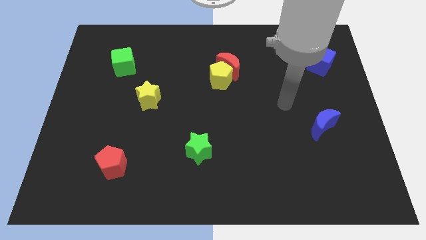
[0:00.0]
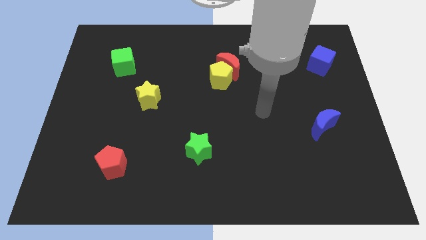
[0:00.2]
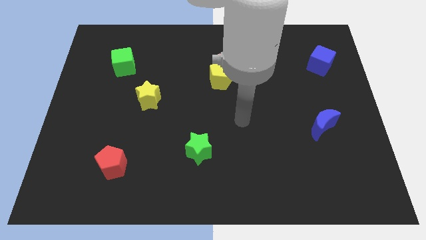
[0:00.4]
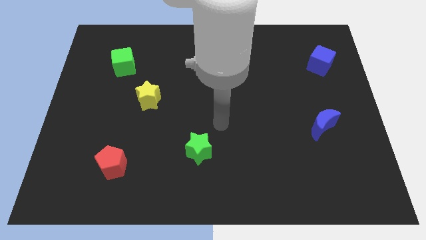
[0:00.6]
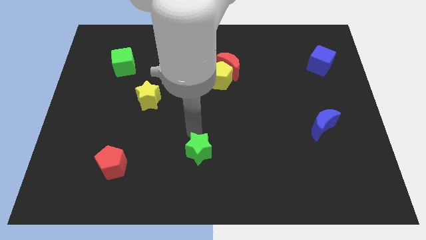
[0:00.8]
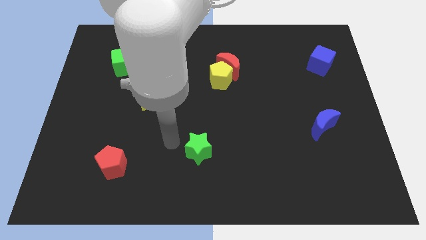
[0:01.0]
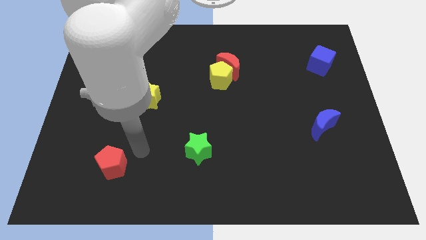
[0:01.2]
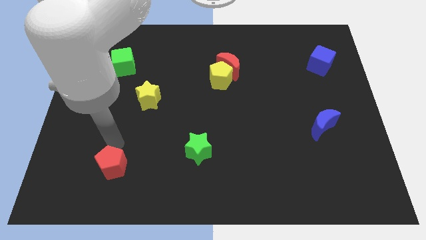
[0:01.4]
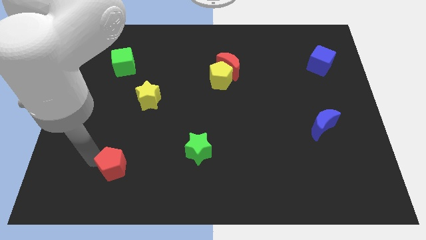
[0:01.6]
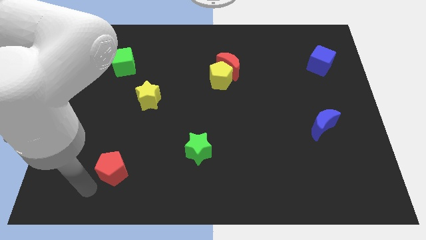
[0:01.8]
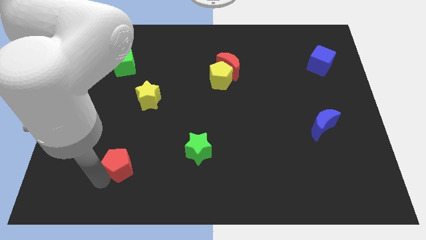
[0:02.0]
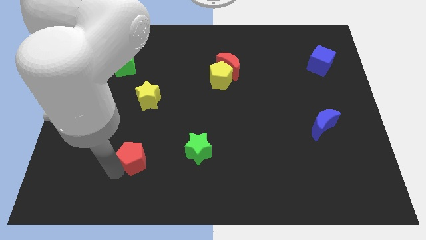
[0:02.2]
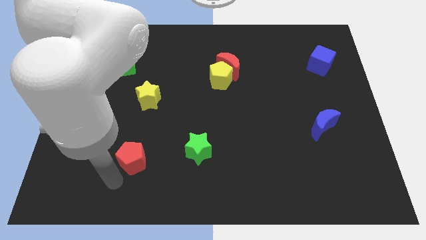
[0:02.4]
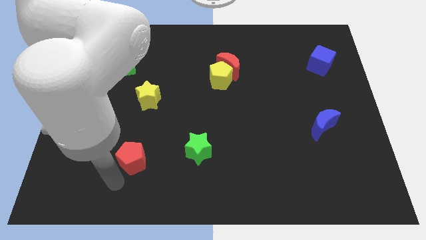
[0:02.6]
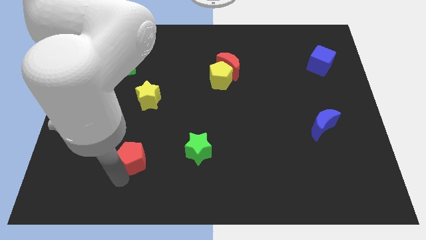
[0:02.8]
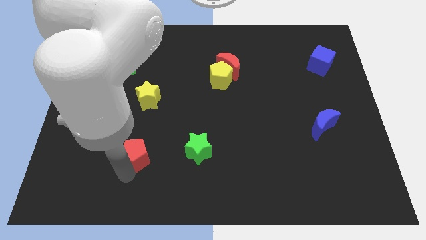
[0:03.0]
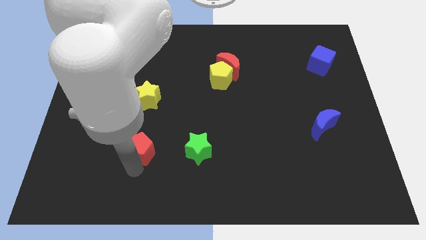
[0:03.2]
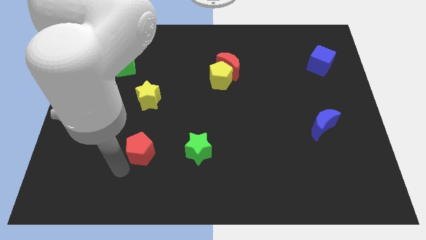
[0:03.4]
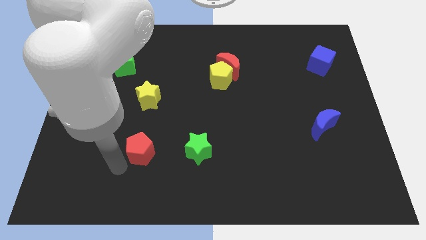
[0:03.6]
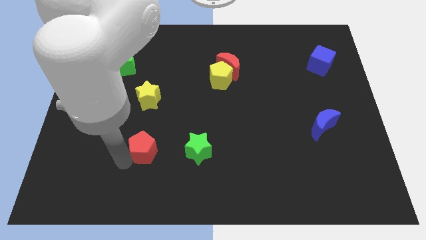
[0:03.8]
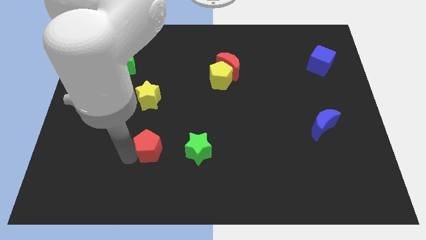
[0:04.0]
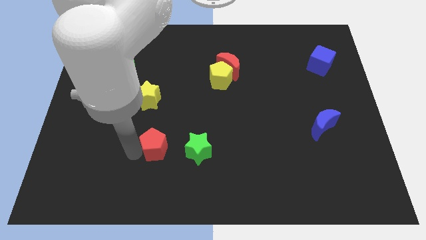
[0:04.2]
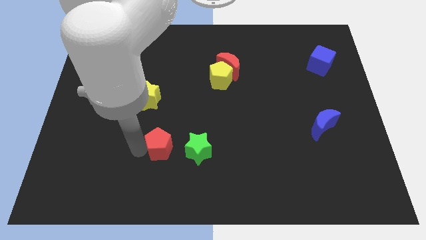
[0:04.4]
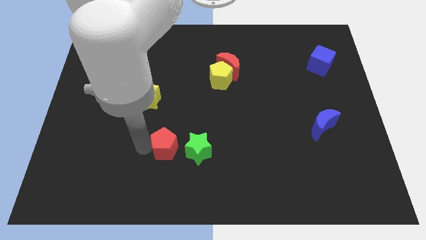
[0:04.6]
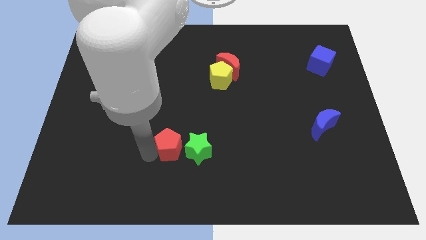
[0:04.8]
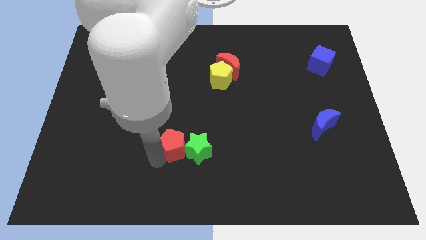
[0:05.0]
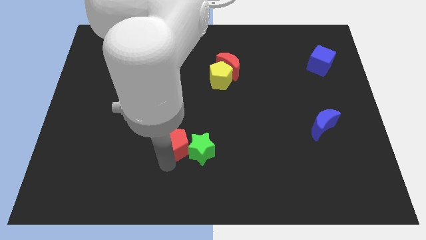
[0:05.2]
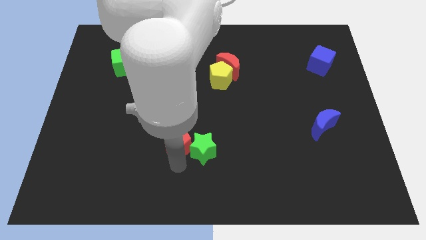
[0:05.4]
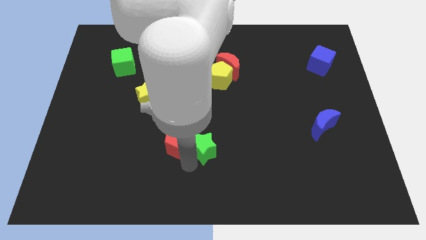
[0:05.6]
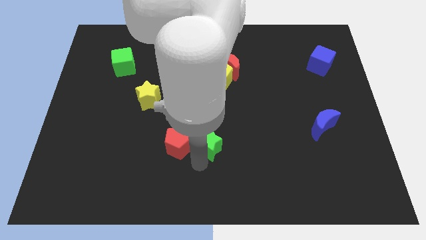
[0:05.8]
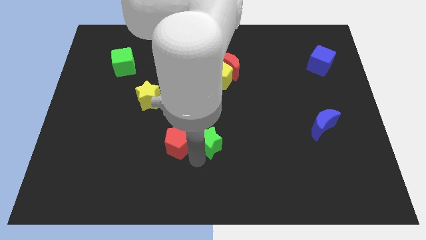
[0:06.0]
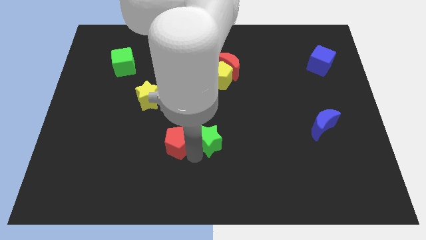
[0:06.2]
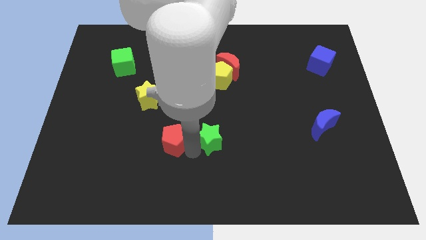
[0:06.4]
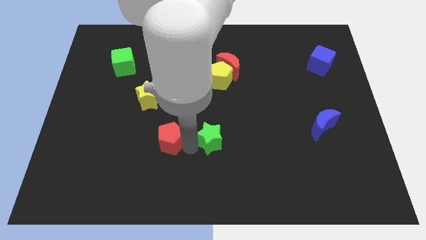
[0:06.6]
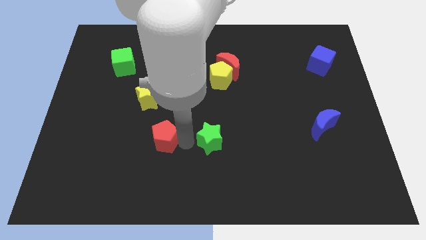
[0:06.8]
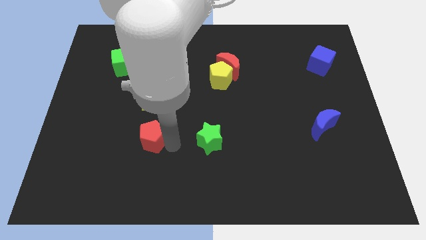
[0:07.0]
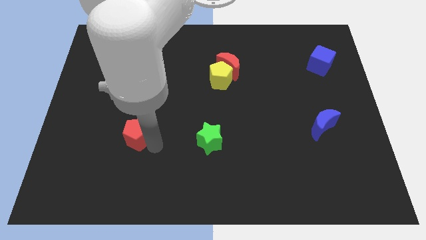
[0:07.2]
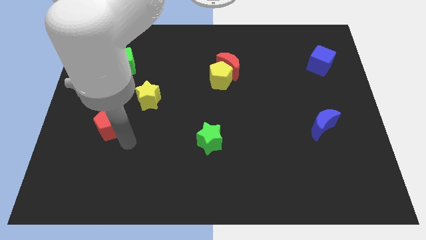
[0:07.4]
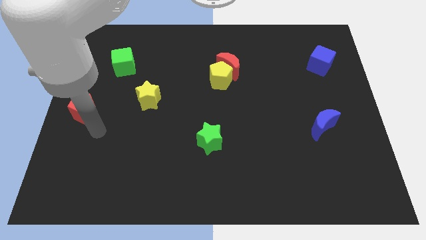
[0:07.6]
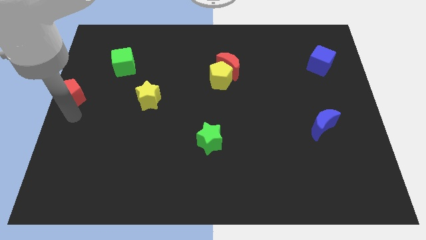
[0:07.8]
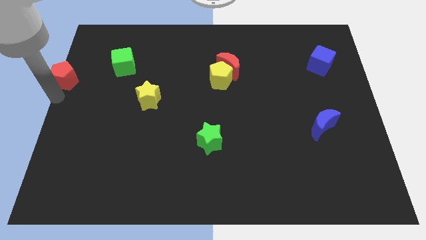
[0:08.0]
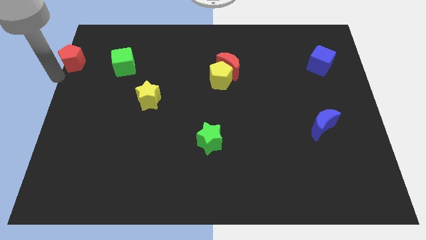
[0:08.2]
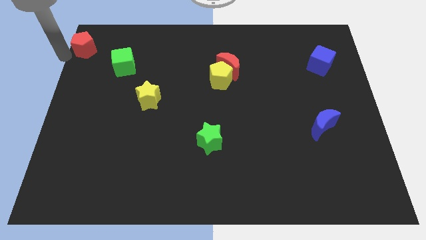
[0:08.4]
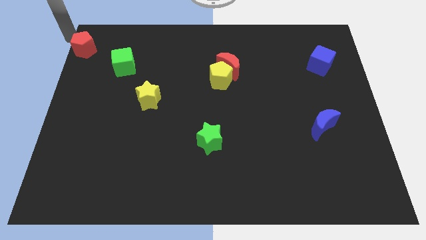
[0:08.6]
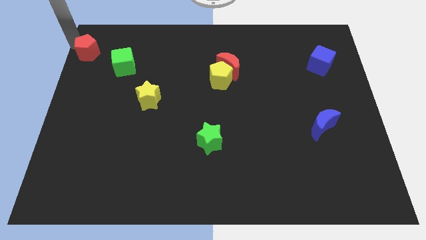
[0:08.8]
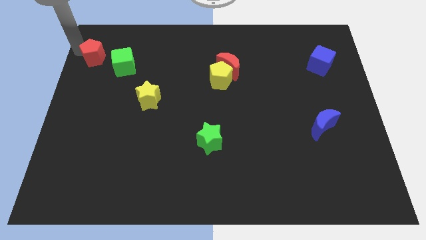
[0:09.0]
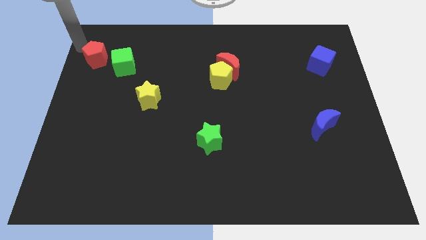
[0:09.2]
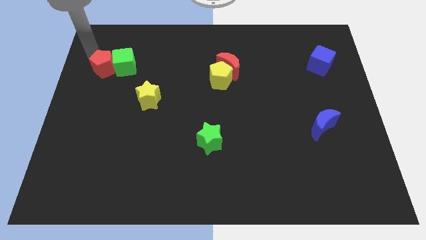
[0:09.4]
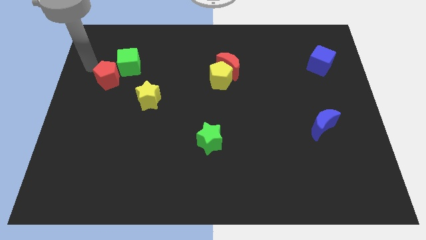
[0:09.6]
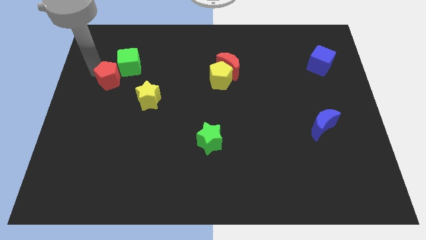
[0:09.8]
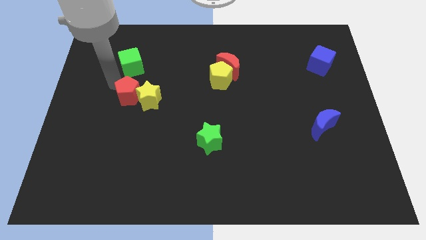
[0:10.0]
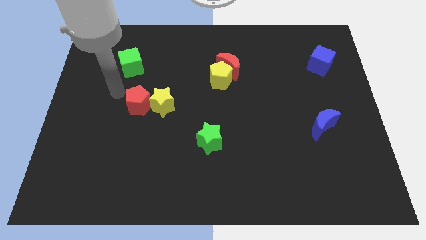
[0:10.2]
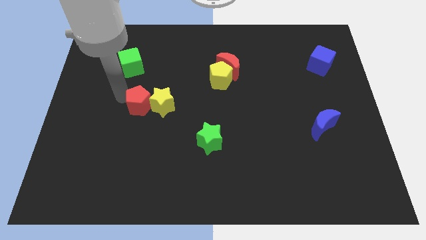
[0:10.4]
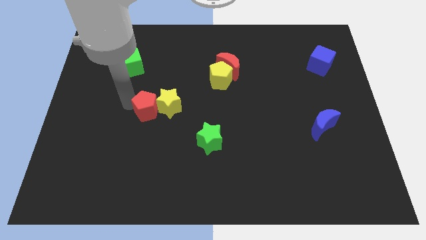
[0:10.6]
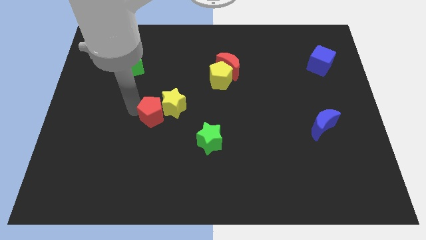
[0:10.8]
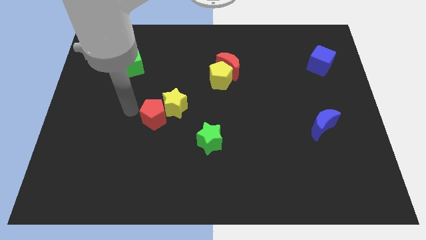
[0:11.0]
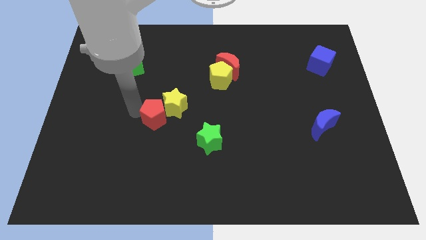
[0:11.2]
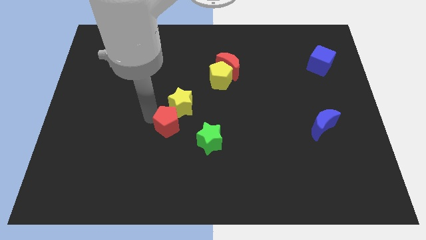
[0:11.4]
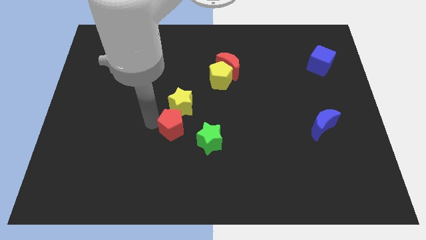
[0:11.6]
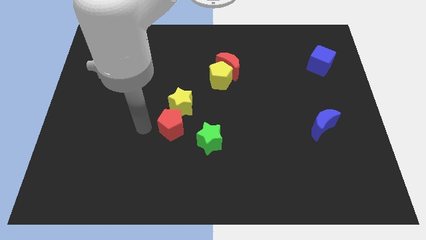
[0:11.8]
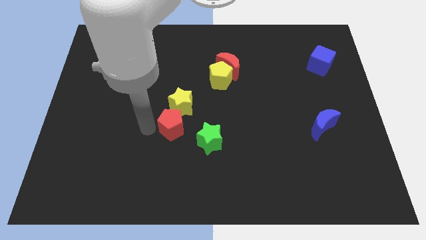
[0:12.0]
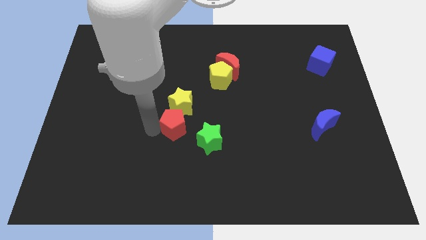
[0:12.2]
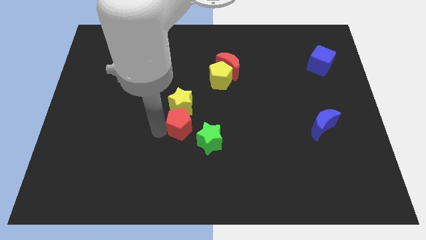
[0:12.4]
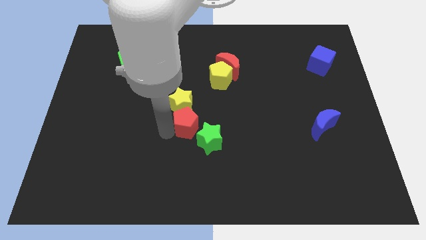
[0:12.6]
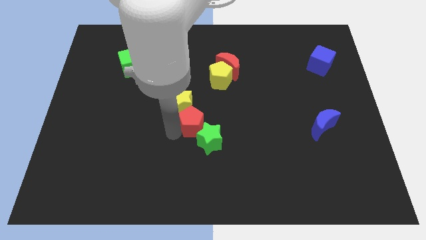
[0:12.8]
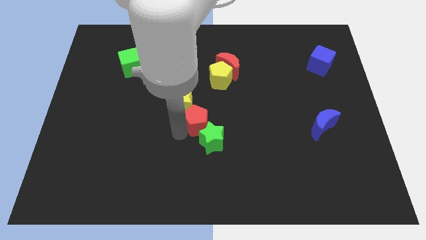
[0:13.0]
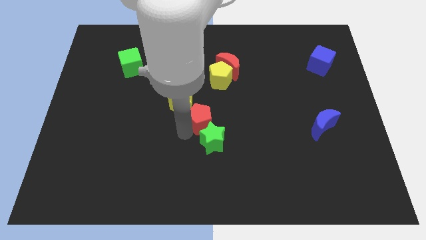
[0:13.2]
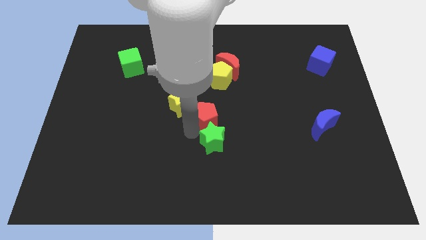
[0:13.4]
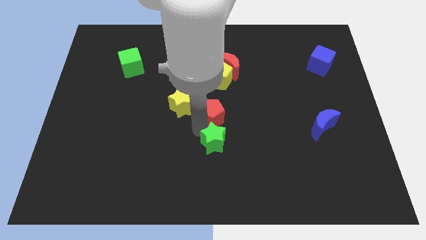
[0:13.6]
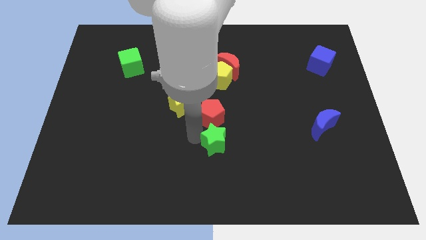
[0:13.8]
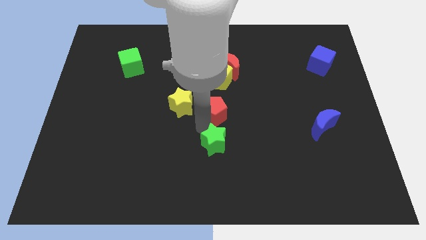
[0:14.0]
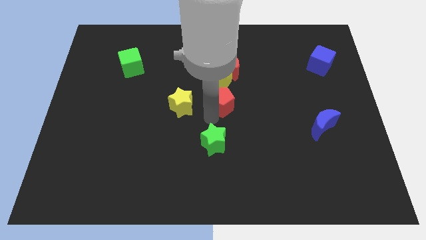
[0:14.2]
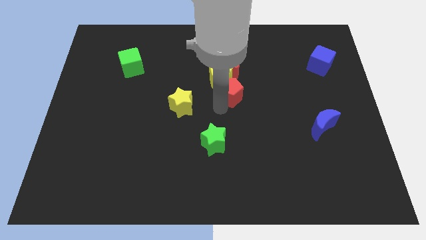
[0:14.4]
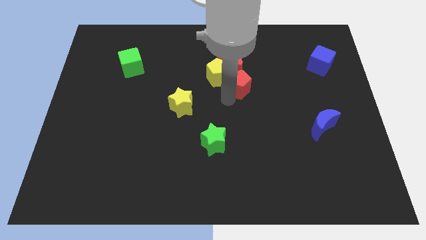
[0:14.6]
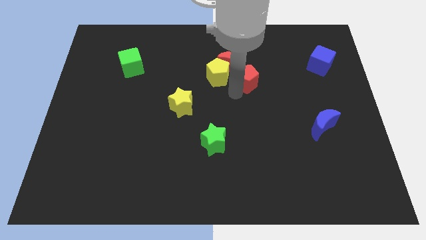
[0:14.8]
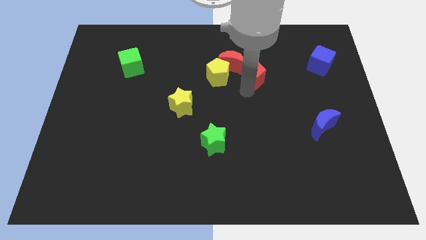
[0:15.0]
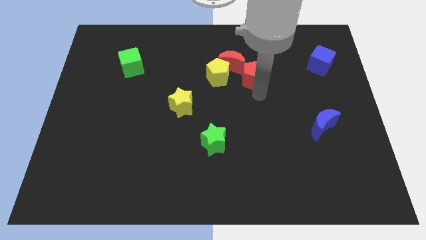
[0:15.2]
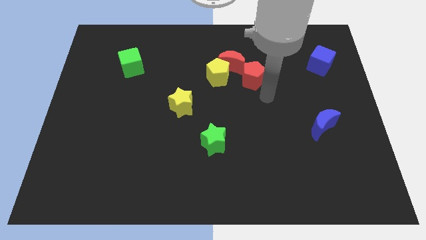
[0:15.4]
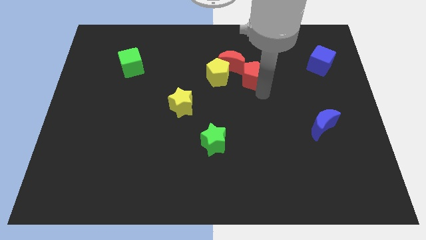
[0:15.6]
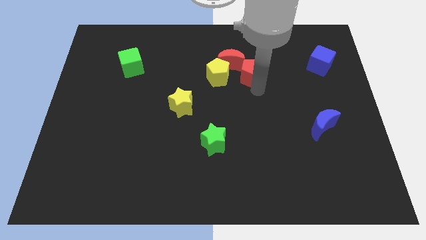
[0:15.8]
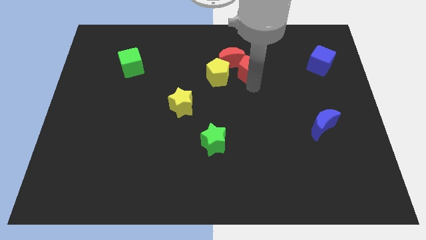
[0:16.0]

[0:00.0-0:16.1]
move the red pentagon to the top right side of the yellow pentagon
